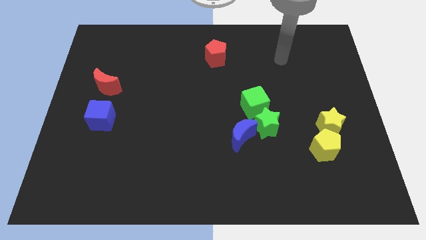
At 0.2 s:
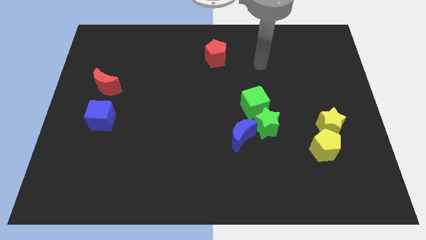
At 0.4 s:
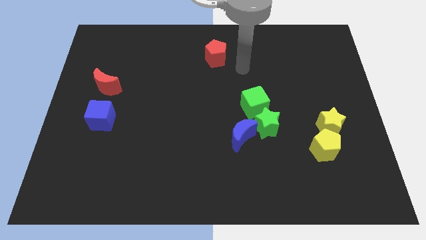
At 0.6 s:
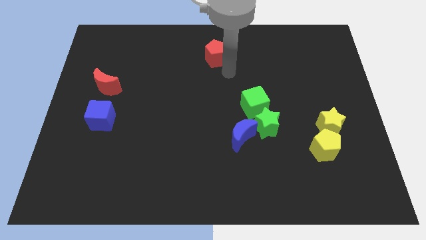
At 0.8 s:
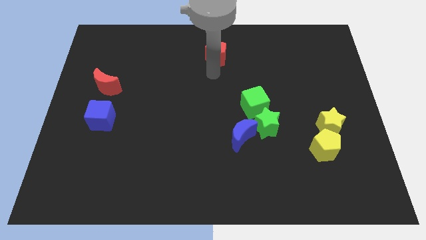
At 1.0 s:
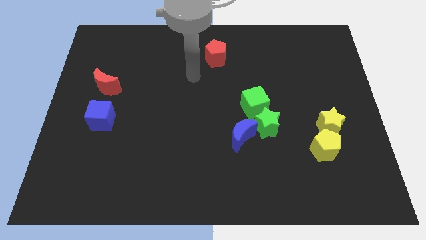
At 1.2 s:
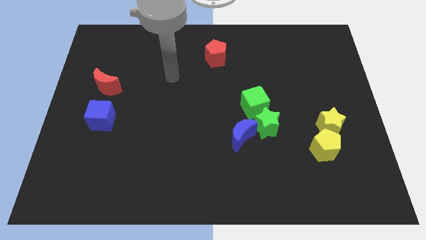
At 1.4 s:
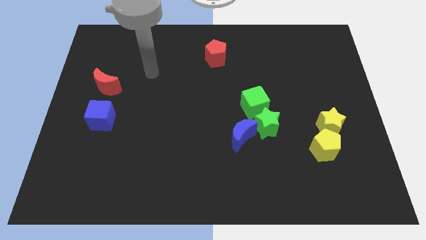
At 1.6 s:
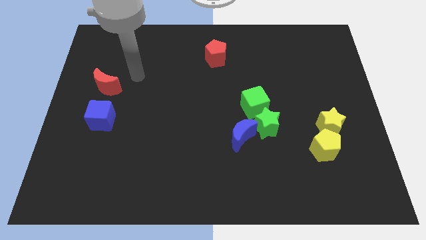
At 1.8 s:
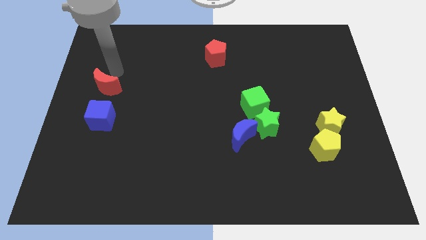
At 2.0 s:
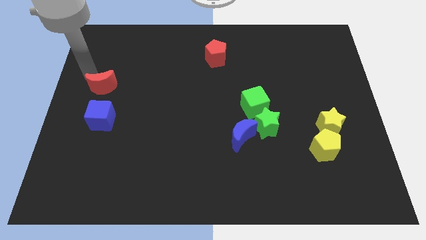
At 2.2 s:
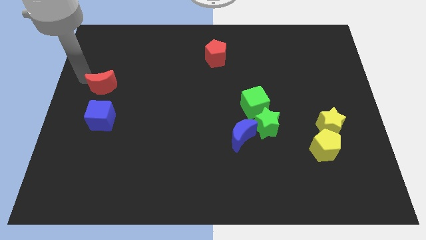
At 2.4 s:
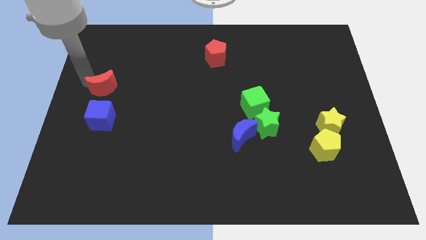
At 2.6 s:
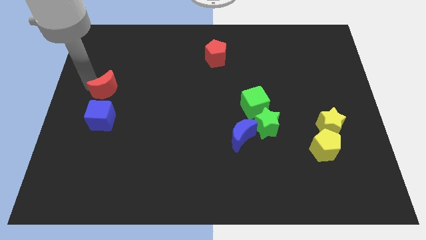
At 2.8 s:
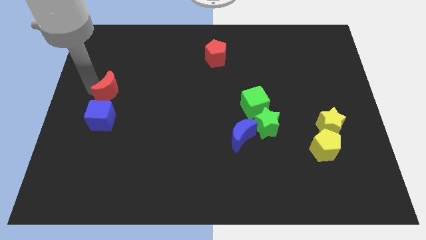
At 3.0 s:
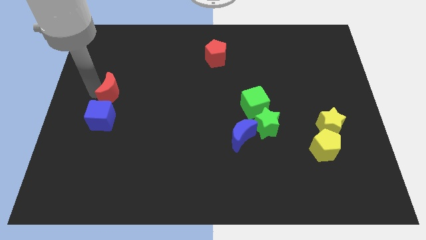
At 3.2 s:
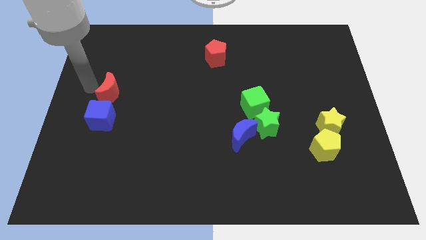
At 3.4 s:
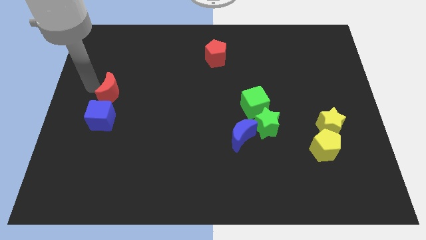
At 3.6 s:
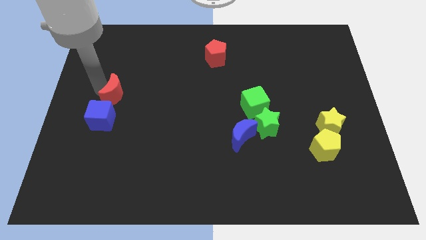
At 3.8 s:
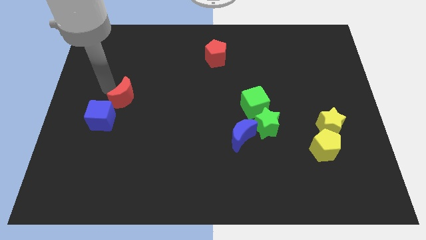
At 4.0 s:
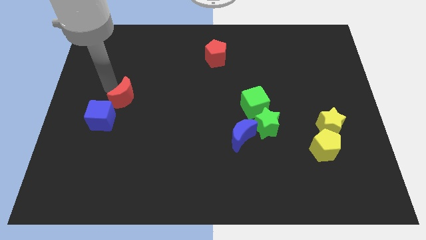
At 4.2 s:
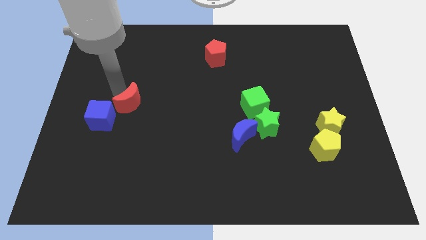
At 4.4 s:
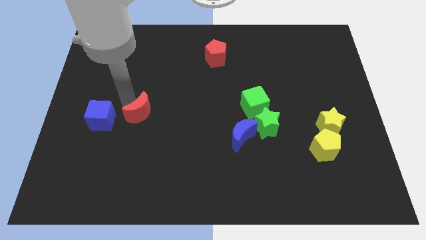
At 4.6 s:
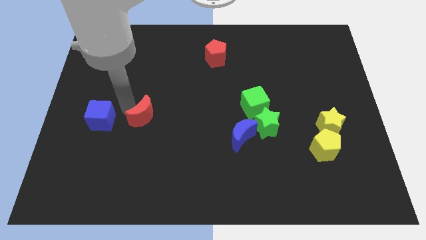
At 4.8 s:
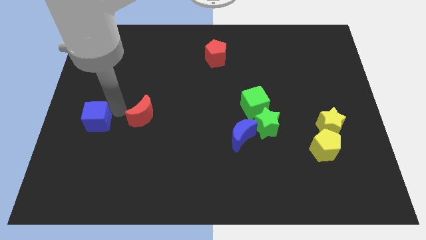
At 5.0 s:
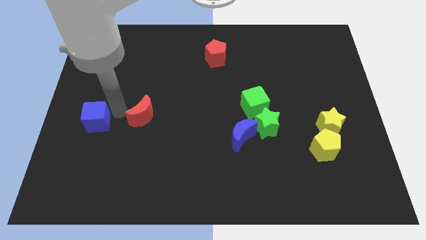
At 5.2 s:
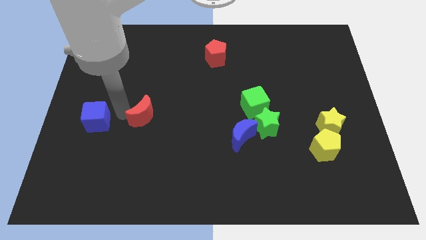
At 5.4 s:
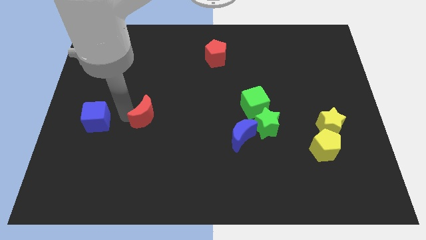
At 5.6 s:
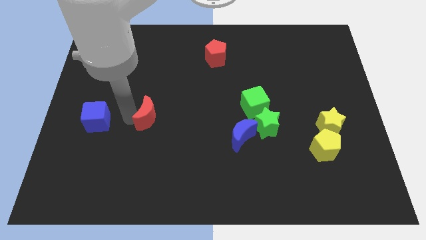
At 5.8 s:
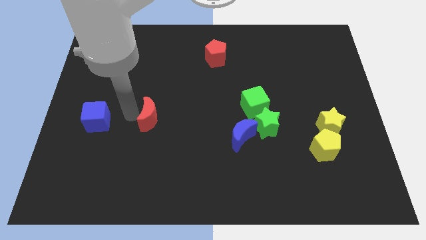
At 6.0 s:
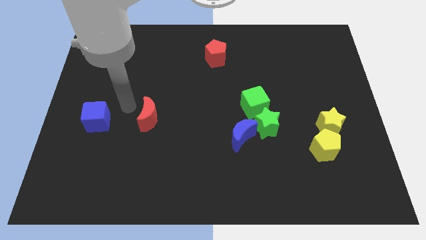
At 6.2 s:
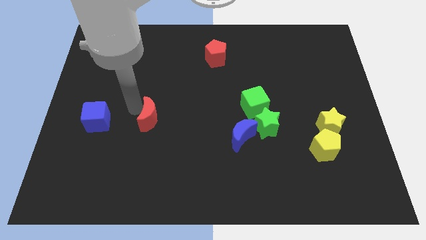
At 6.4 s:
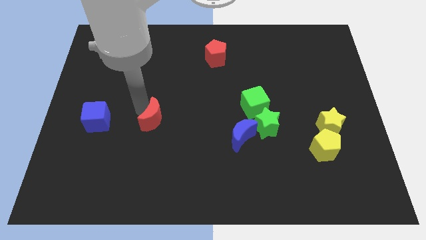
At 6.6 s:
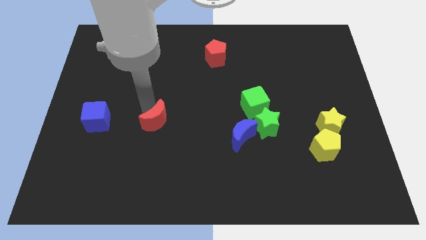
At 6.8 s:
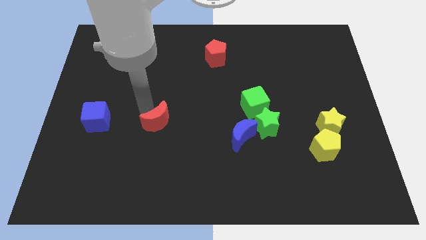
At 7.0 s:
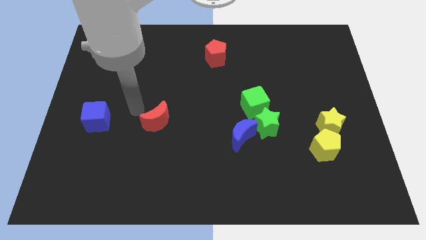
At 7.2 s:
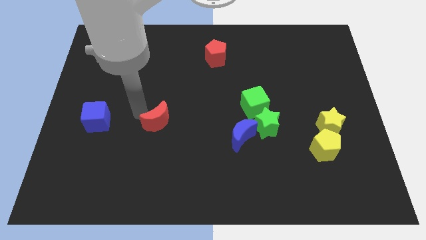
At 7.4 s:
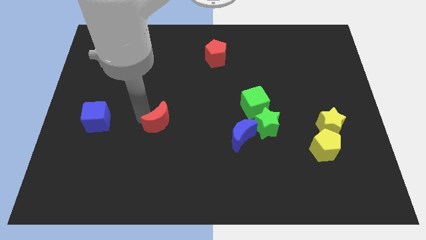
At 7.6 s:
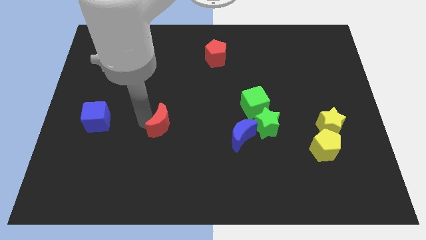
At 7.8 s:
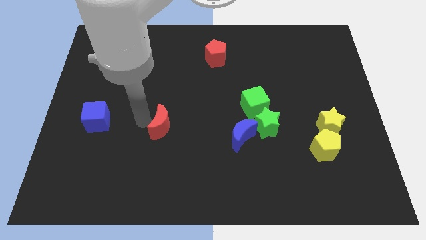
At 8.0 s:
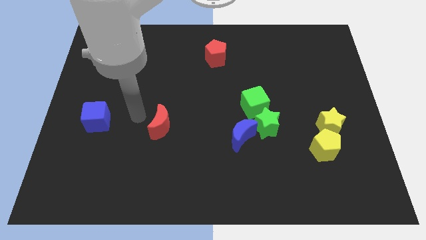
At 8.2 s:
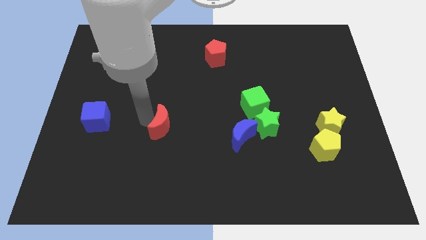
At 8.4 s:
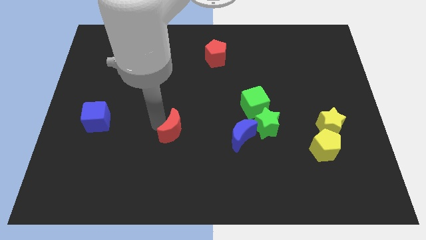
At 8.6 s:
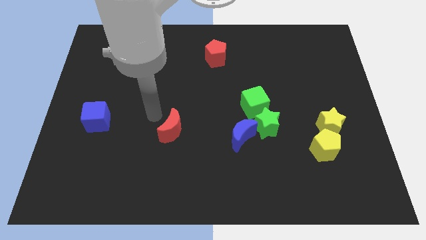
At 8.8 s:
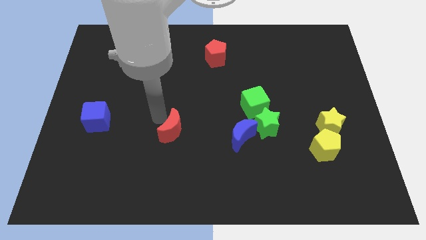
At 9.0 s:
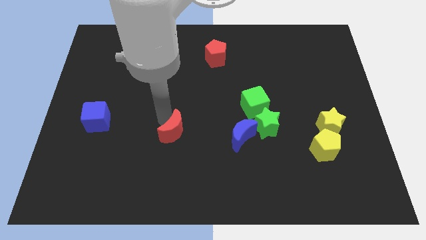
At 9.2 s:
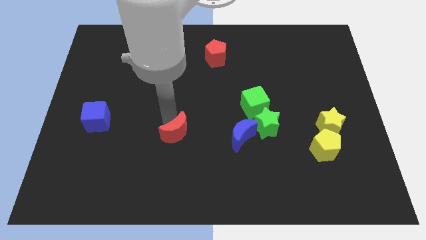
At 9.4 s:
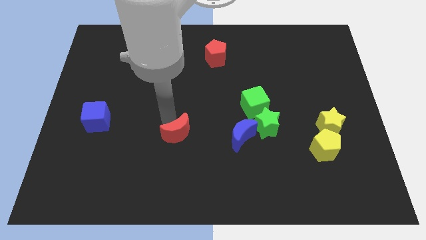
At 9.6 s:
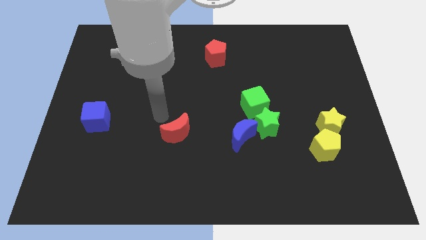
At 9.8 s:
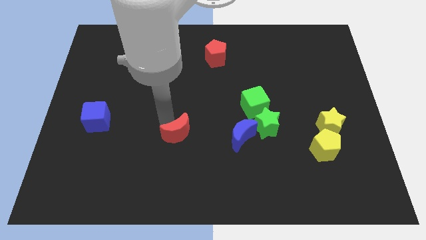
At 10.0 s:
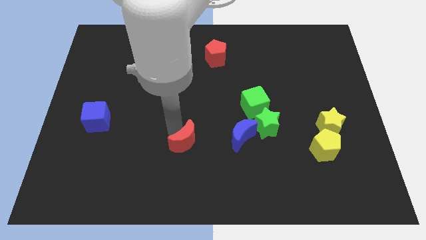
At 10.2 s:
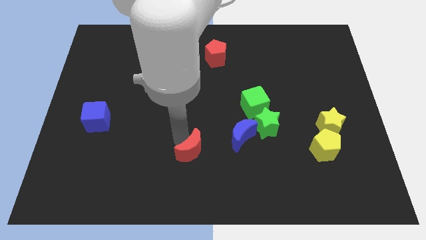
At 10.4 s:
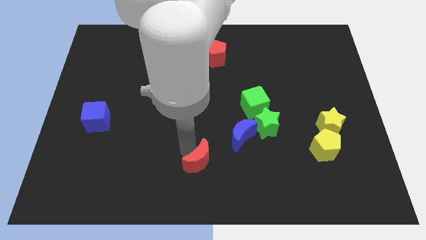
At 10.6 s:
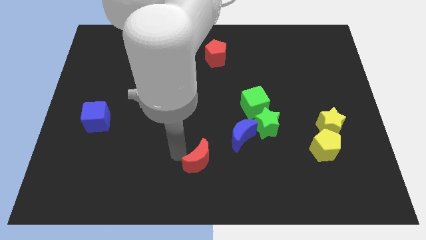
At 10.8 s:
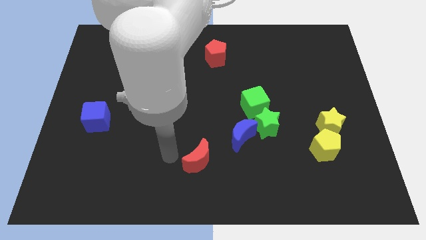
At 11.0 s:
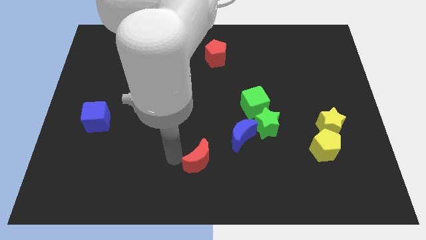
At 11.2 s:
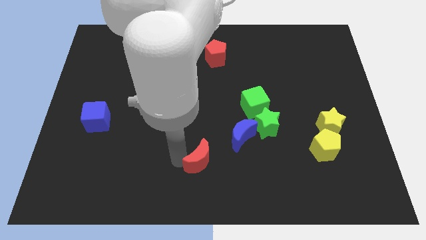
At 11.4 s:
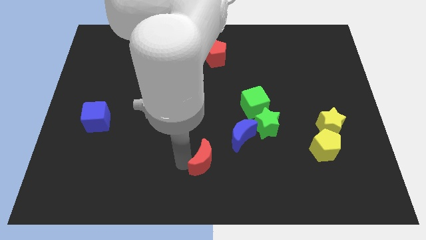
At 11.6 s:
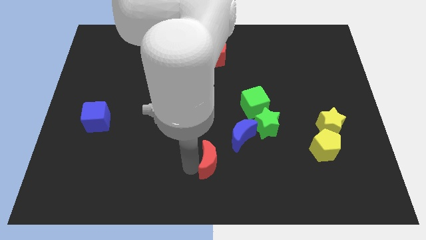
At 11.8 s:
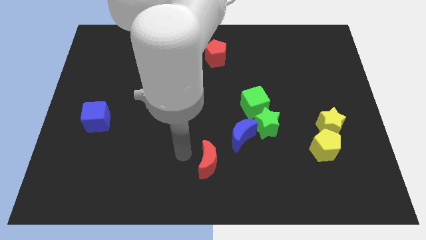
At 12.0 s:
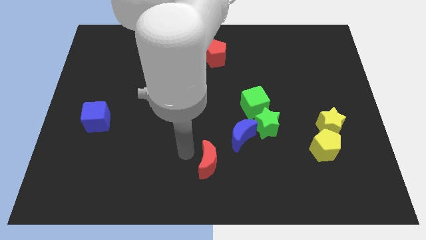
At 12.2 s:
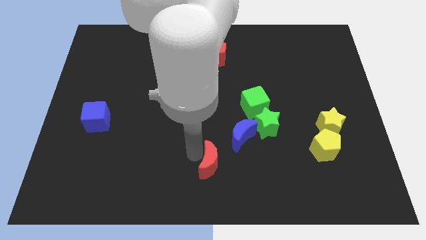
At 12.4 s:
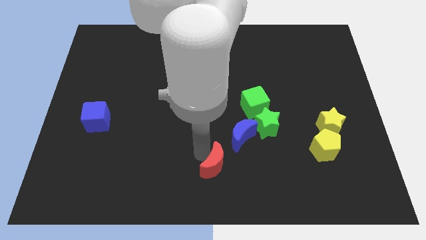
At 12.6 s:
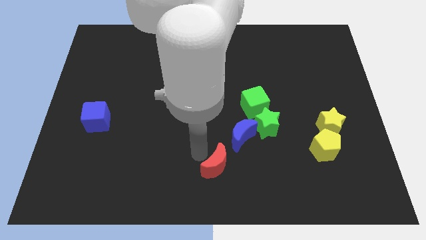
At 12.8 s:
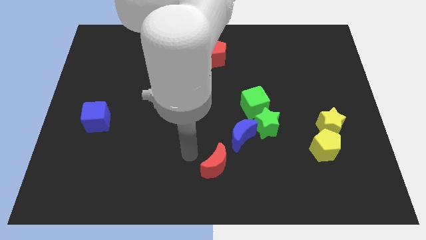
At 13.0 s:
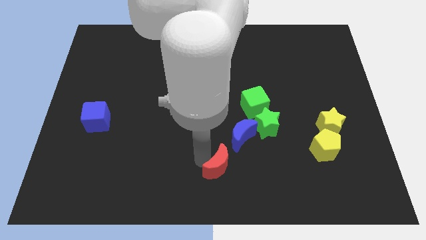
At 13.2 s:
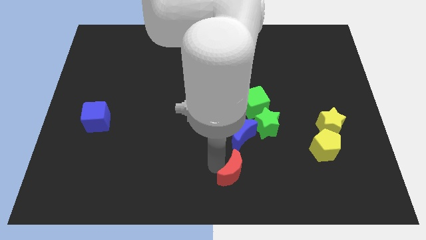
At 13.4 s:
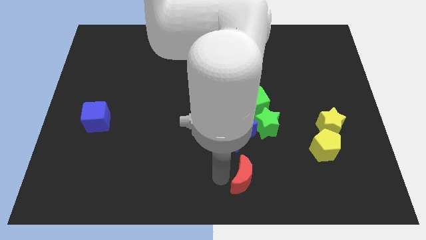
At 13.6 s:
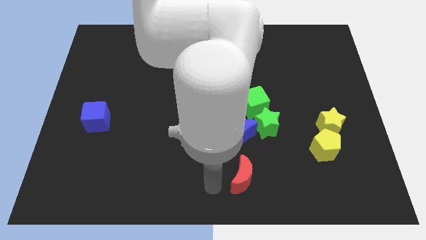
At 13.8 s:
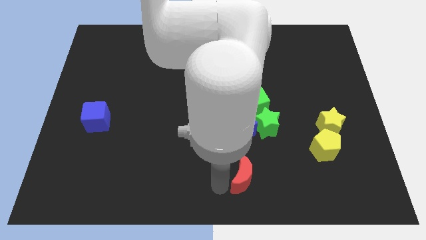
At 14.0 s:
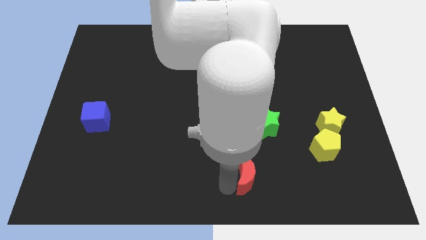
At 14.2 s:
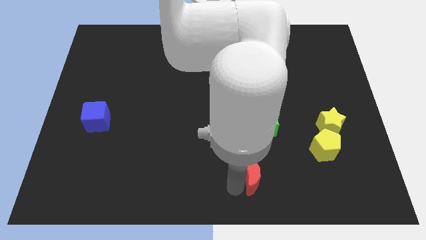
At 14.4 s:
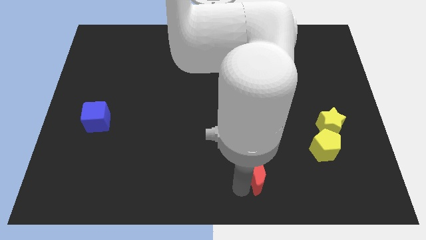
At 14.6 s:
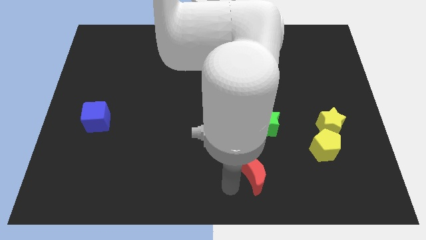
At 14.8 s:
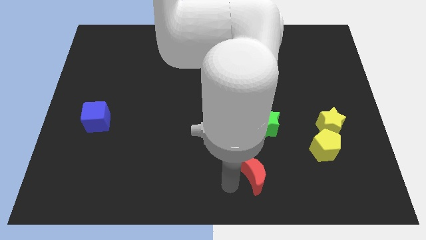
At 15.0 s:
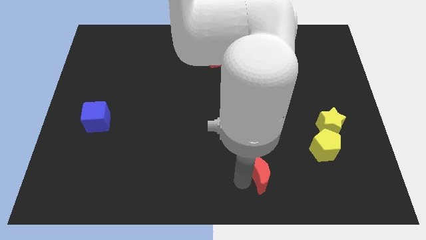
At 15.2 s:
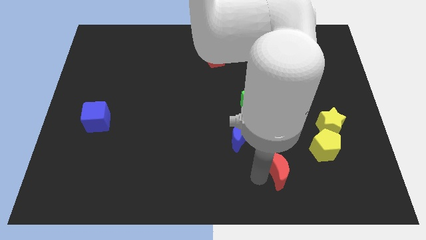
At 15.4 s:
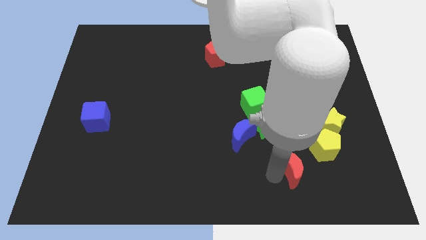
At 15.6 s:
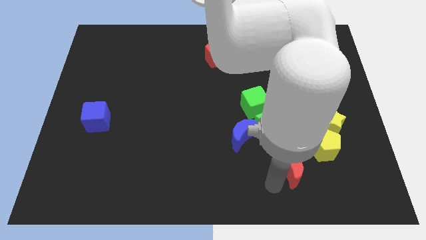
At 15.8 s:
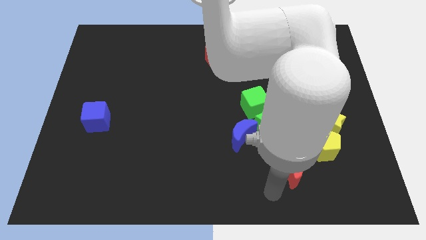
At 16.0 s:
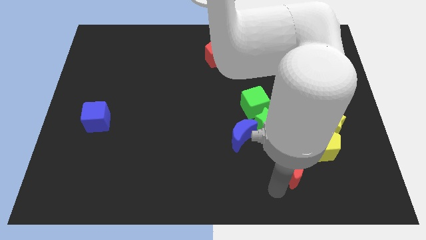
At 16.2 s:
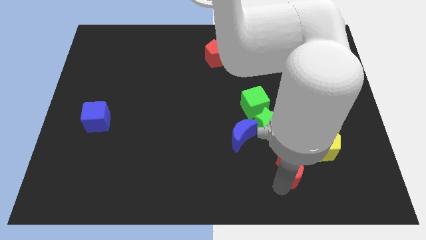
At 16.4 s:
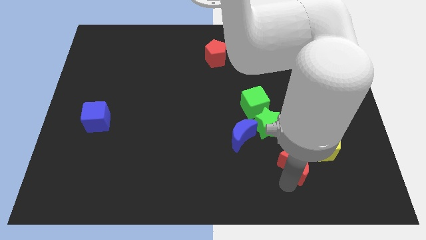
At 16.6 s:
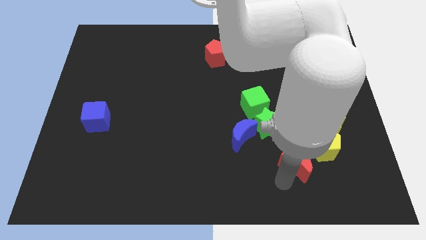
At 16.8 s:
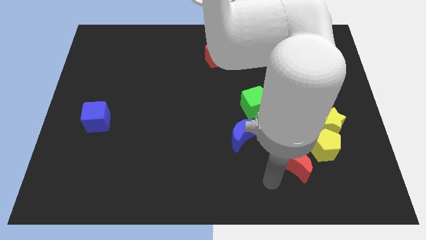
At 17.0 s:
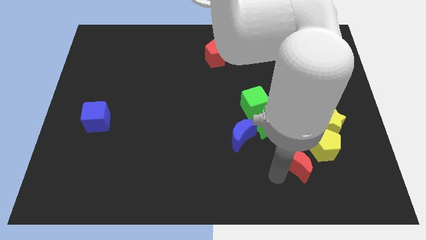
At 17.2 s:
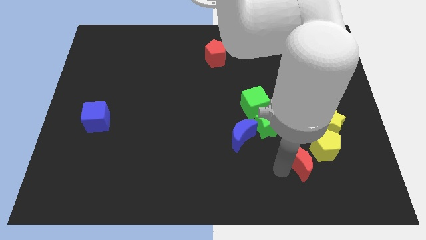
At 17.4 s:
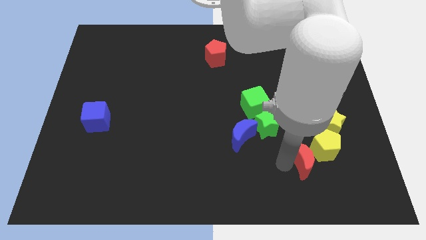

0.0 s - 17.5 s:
move the red moon towards the yellow pentagon
